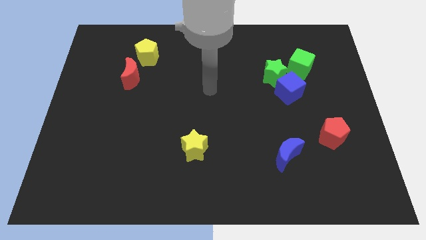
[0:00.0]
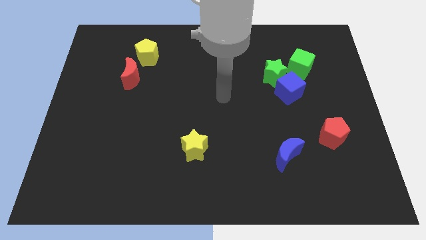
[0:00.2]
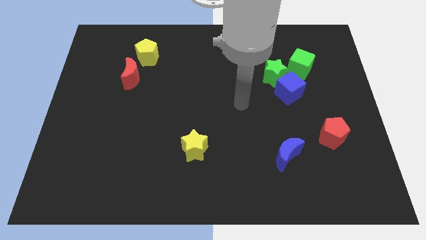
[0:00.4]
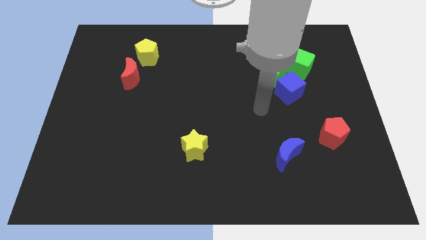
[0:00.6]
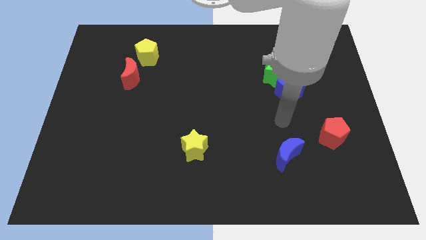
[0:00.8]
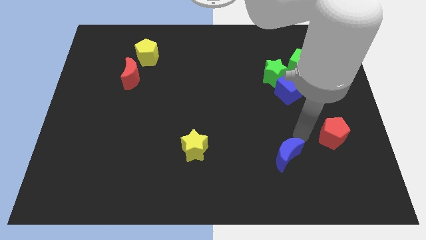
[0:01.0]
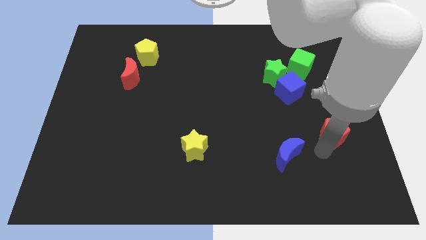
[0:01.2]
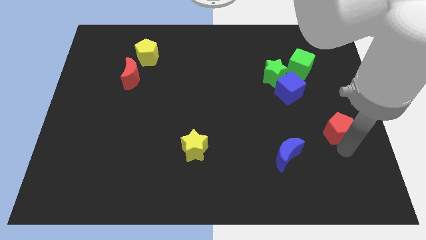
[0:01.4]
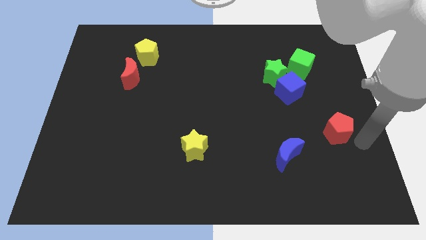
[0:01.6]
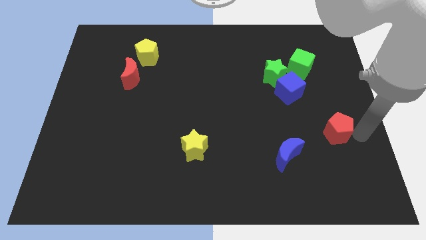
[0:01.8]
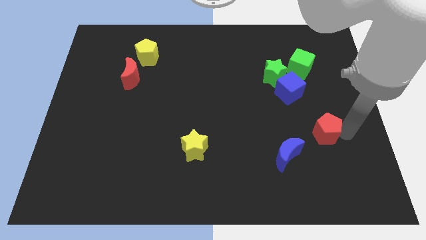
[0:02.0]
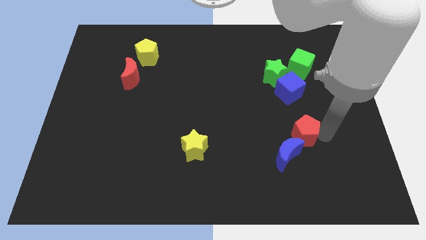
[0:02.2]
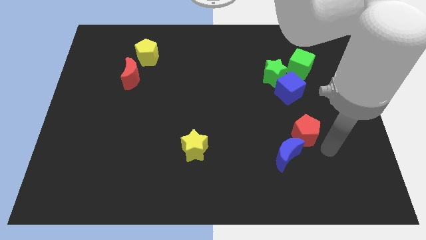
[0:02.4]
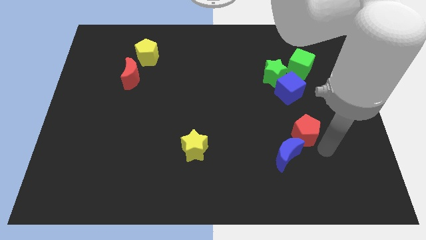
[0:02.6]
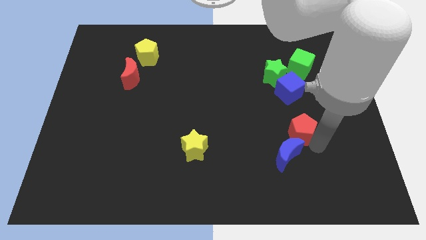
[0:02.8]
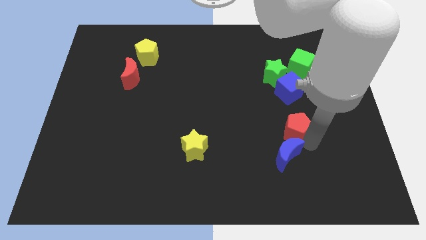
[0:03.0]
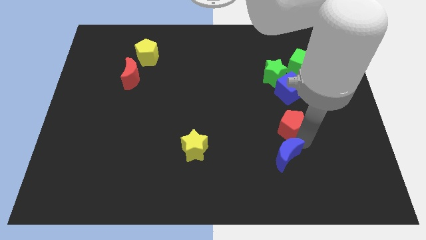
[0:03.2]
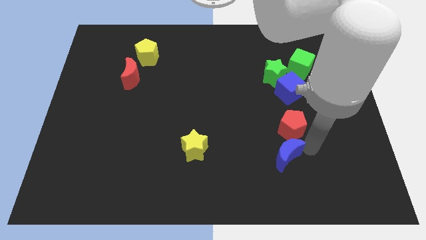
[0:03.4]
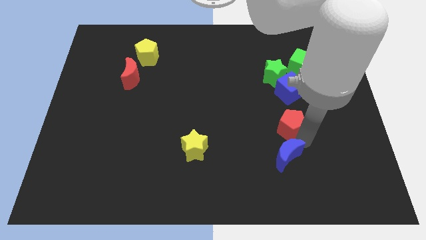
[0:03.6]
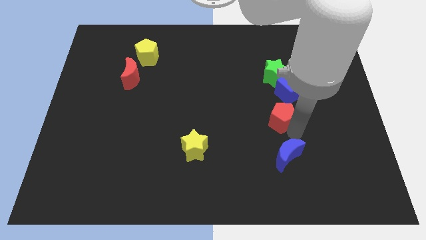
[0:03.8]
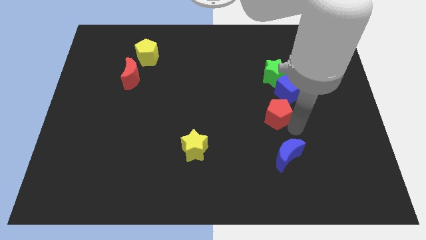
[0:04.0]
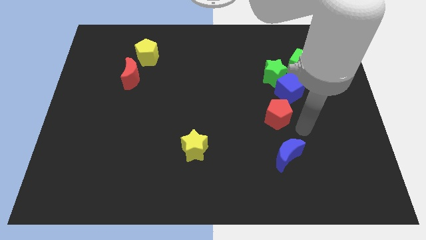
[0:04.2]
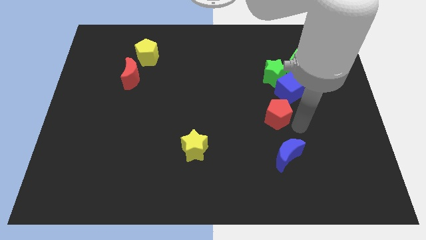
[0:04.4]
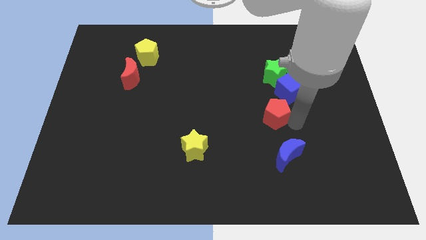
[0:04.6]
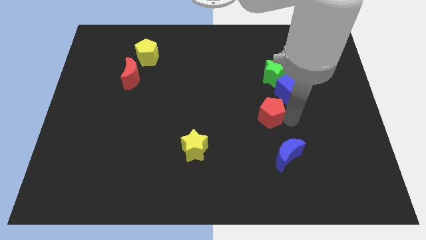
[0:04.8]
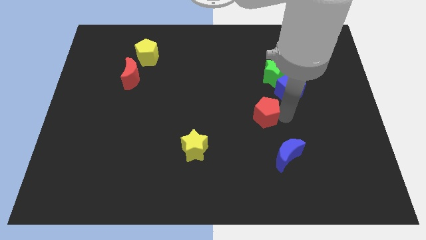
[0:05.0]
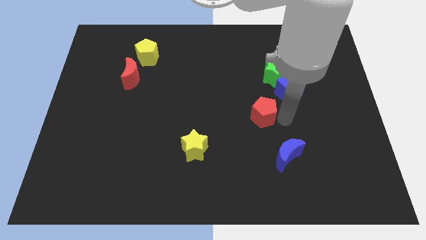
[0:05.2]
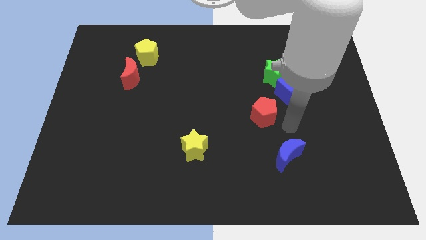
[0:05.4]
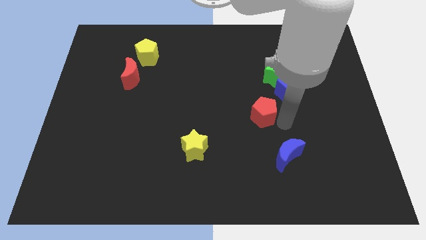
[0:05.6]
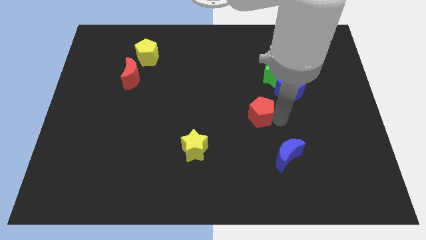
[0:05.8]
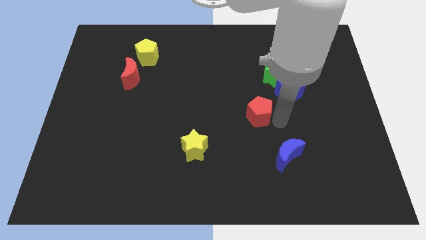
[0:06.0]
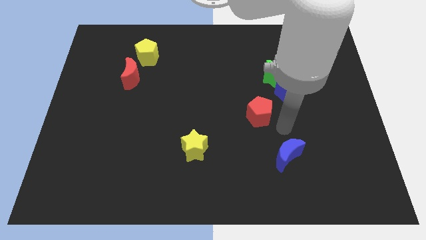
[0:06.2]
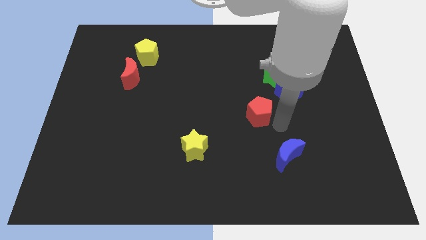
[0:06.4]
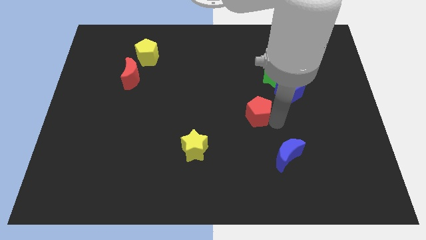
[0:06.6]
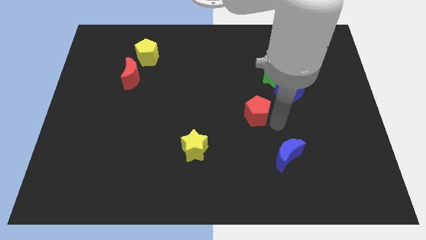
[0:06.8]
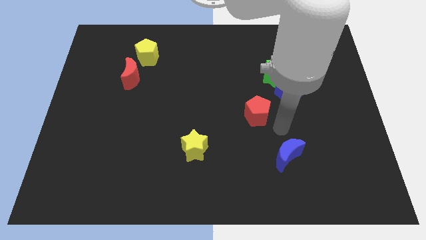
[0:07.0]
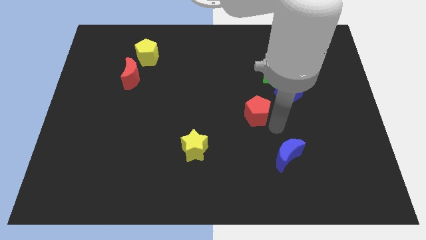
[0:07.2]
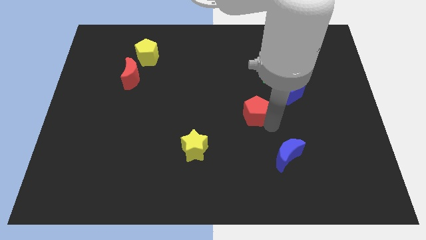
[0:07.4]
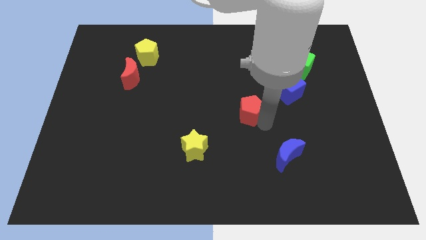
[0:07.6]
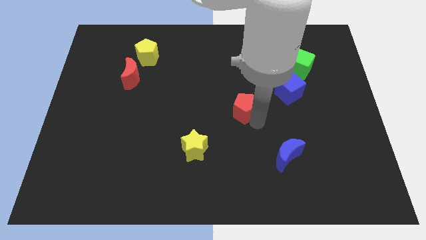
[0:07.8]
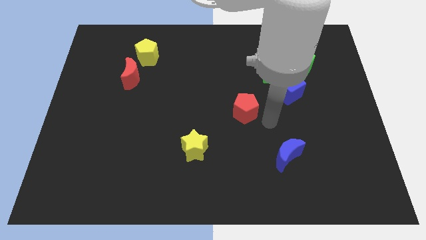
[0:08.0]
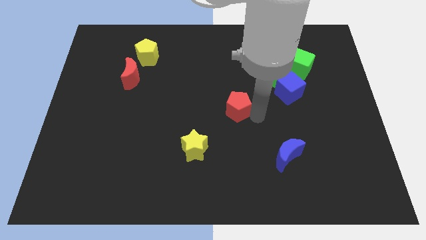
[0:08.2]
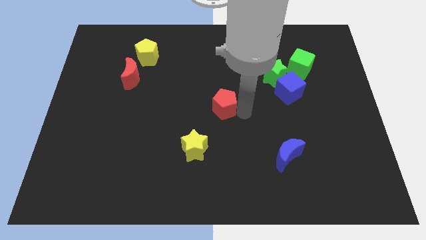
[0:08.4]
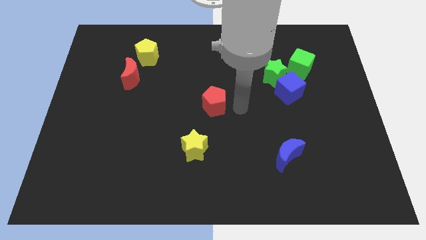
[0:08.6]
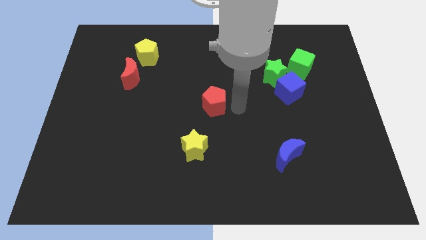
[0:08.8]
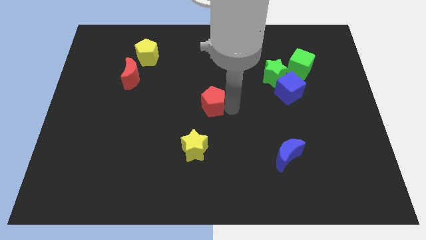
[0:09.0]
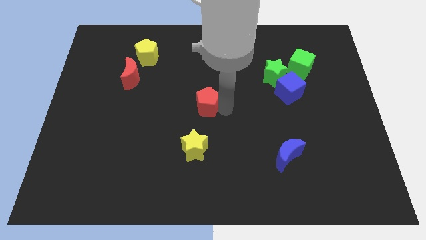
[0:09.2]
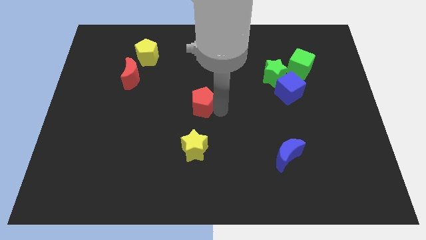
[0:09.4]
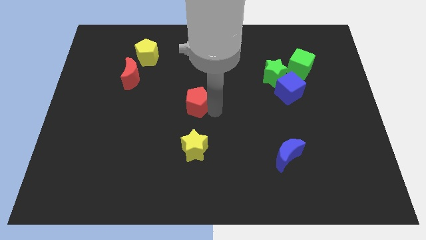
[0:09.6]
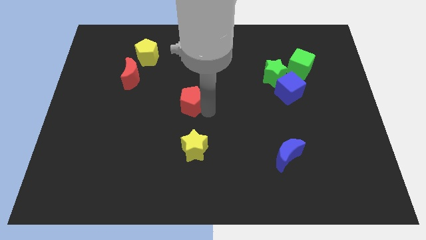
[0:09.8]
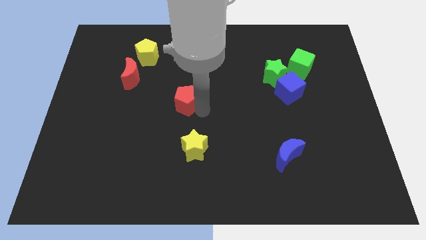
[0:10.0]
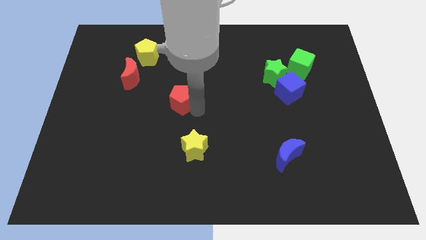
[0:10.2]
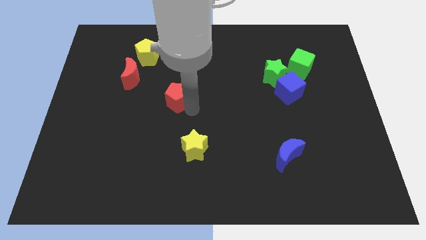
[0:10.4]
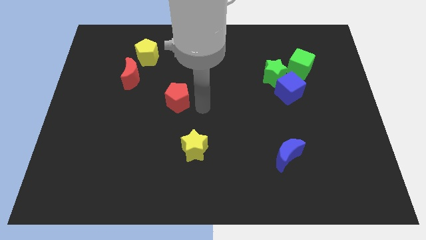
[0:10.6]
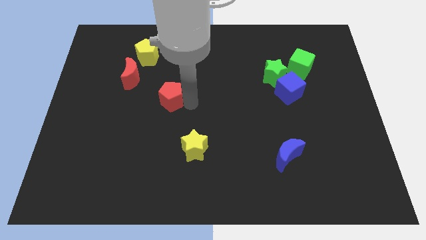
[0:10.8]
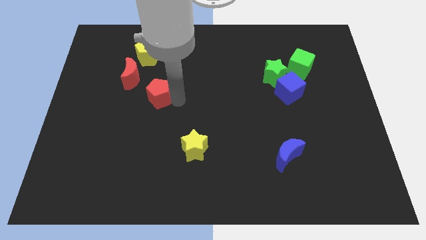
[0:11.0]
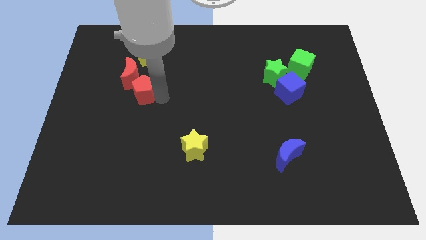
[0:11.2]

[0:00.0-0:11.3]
slide the red pentagon next to the red moon

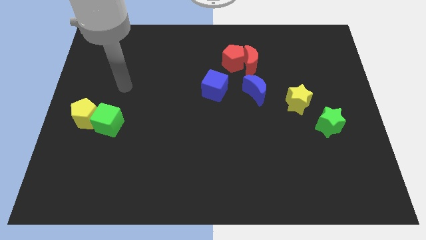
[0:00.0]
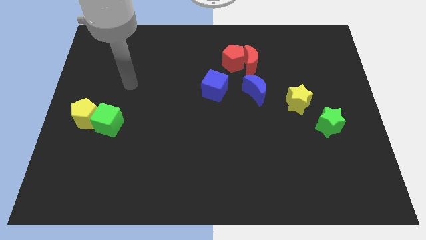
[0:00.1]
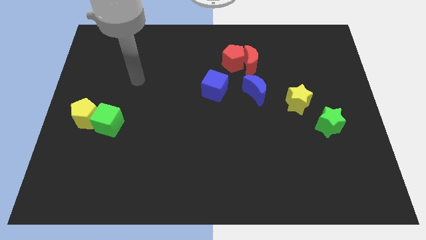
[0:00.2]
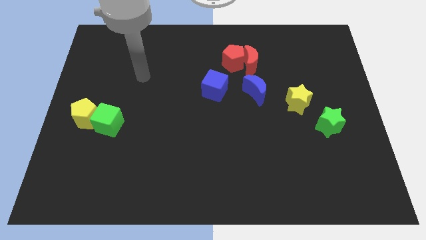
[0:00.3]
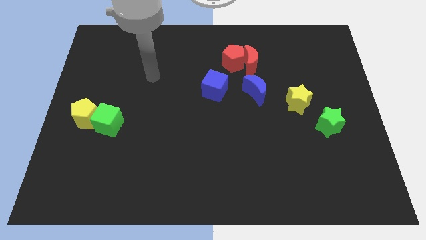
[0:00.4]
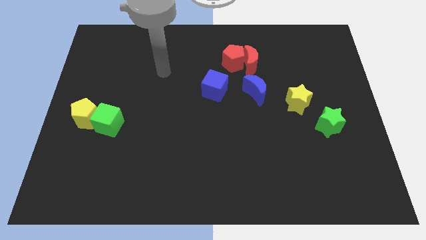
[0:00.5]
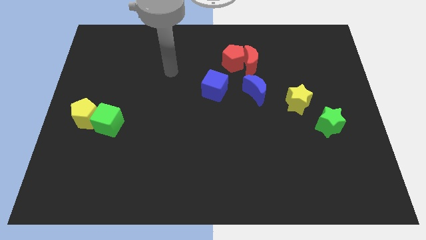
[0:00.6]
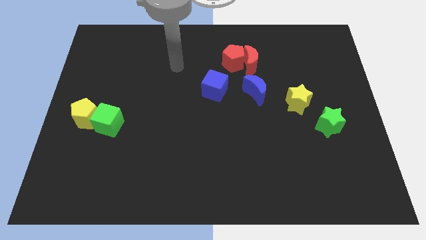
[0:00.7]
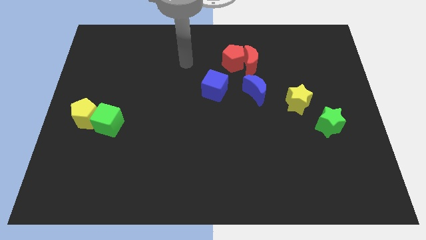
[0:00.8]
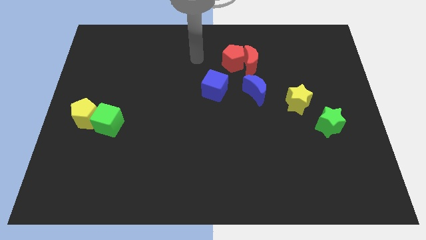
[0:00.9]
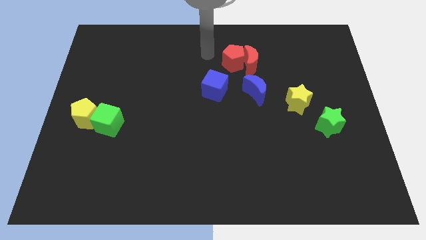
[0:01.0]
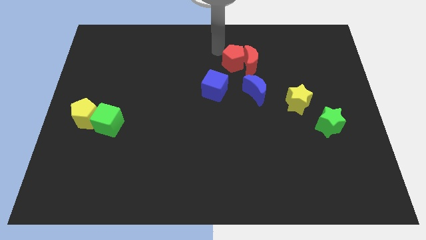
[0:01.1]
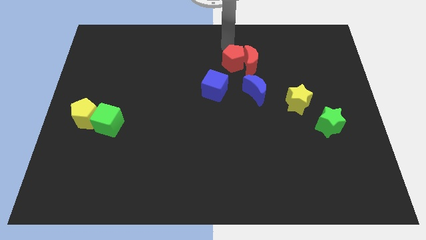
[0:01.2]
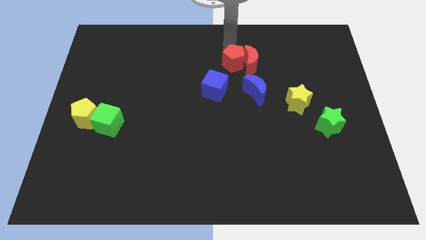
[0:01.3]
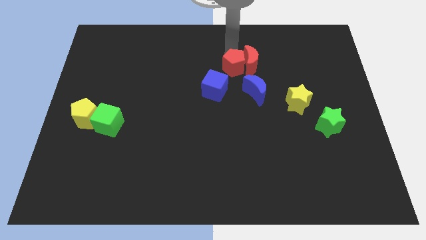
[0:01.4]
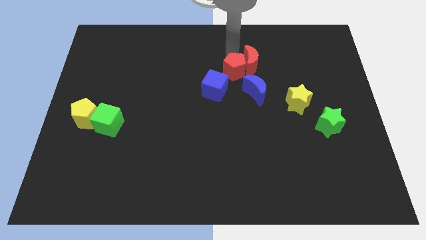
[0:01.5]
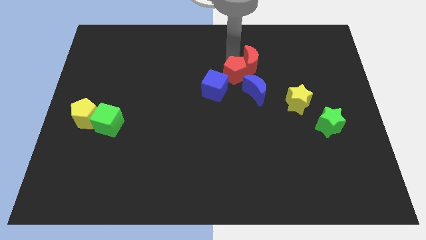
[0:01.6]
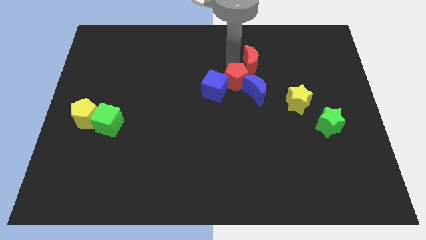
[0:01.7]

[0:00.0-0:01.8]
push the red pentagon towards the blue moon

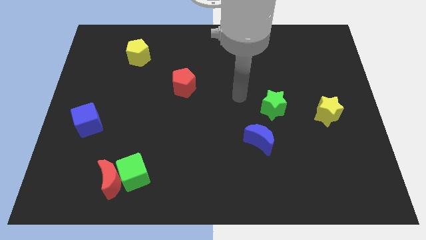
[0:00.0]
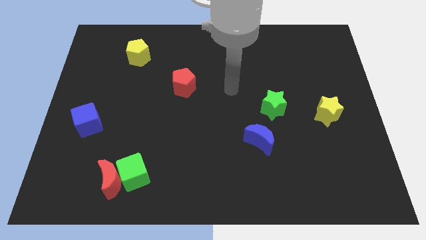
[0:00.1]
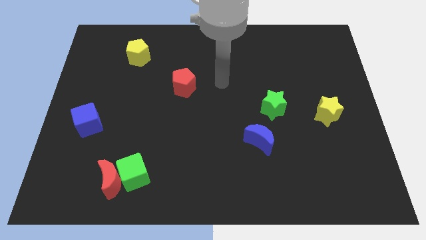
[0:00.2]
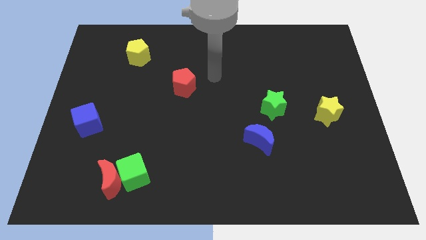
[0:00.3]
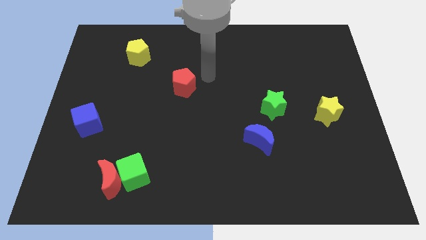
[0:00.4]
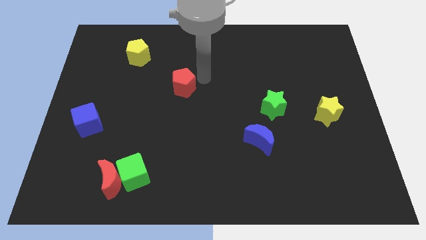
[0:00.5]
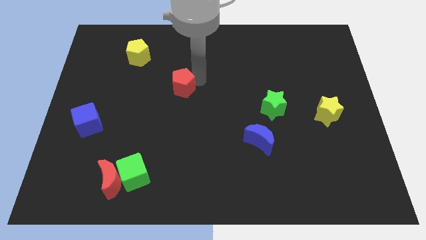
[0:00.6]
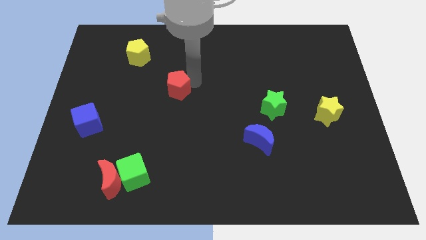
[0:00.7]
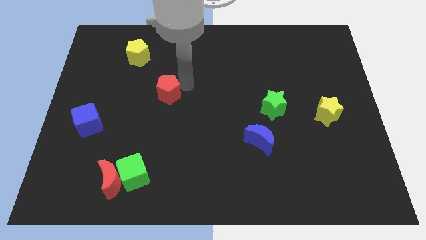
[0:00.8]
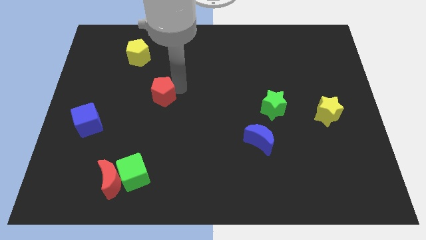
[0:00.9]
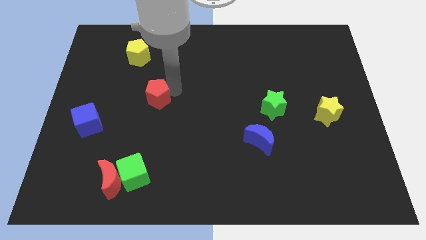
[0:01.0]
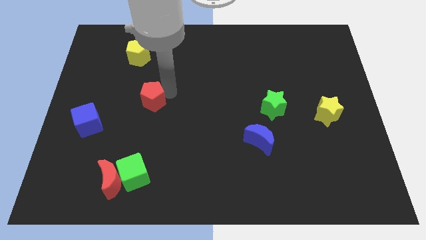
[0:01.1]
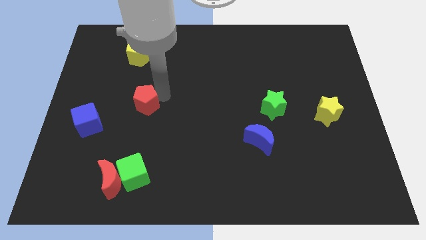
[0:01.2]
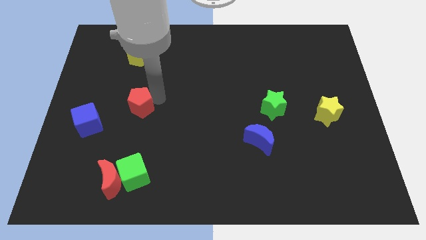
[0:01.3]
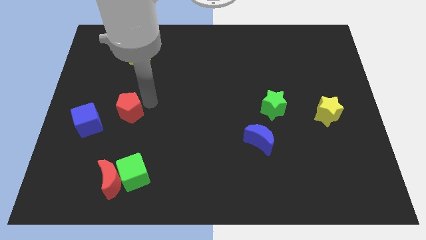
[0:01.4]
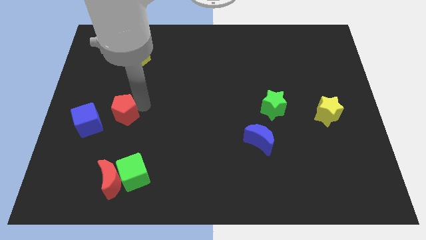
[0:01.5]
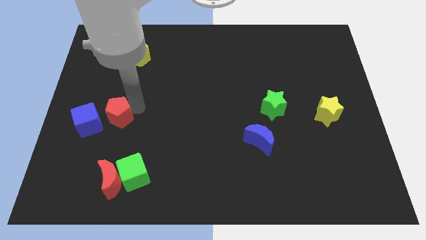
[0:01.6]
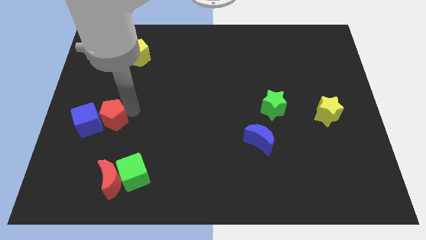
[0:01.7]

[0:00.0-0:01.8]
put the red pentagon to the blue cube
